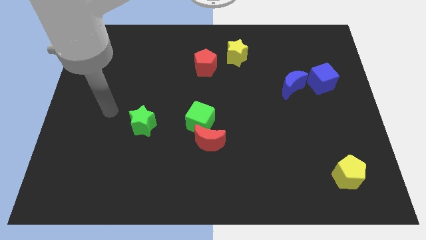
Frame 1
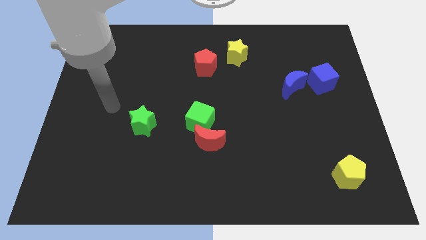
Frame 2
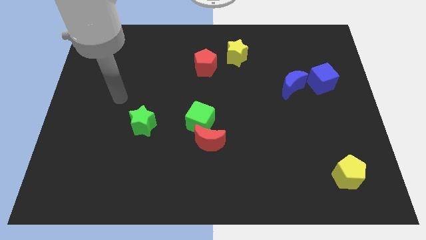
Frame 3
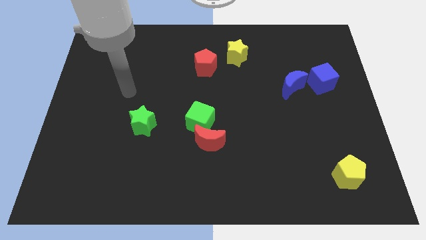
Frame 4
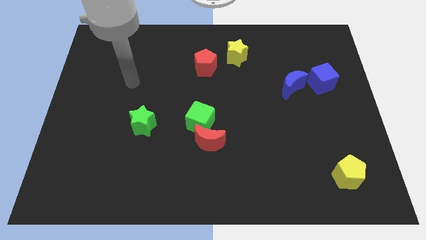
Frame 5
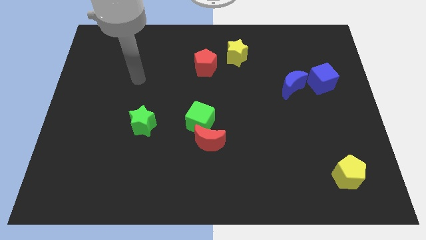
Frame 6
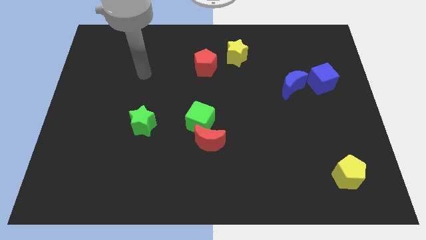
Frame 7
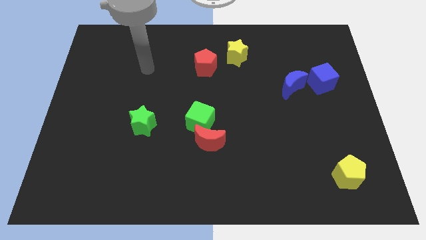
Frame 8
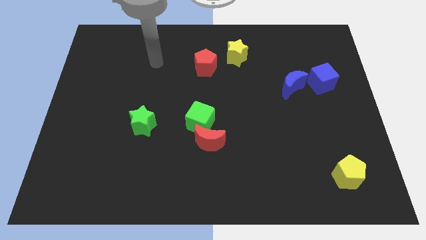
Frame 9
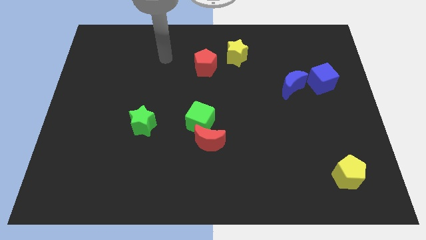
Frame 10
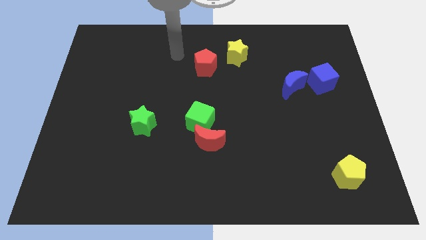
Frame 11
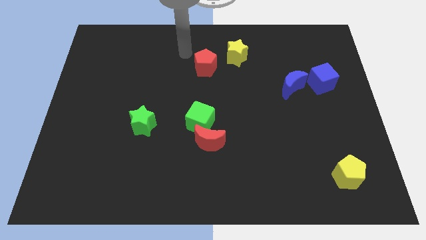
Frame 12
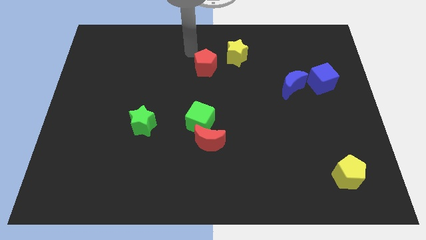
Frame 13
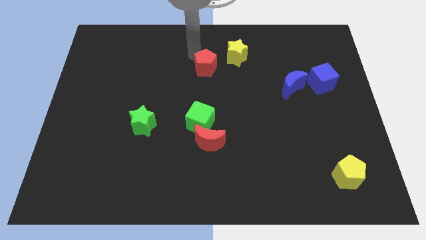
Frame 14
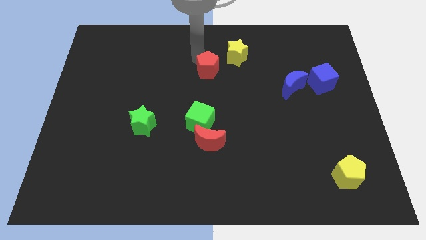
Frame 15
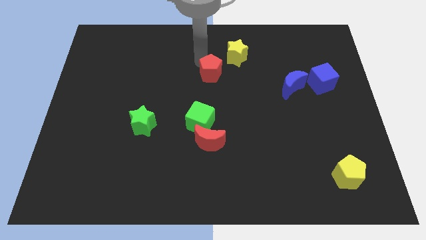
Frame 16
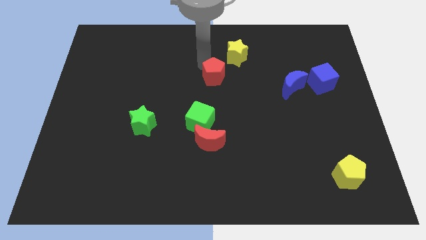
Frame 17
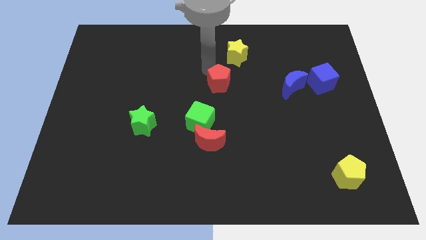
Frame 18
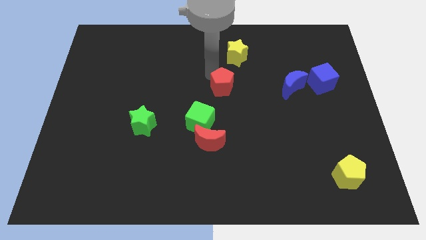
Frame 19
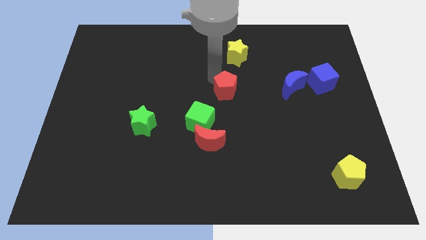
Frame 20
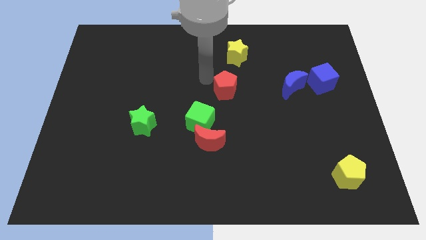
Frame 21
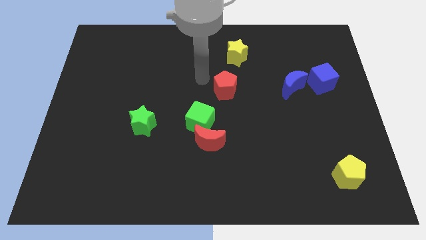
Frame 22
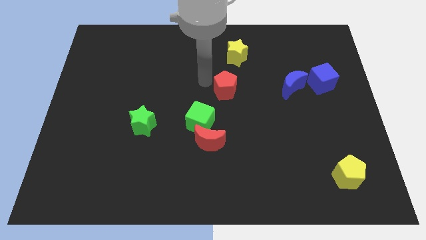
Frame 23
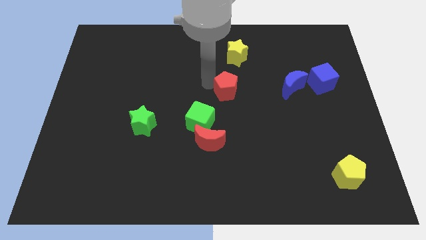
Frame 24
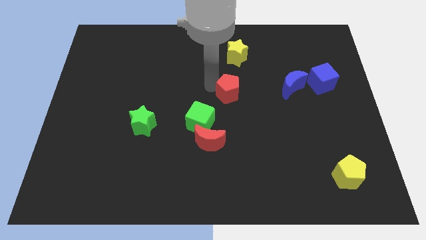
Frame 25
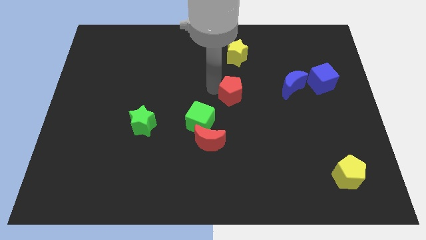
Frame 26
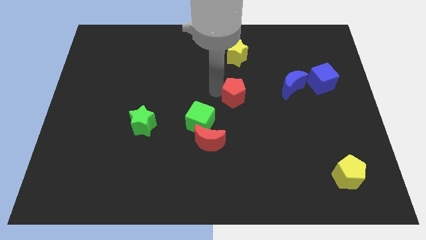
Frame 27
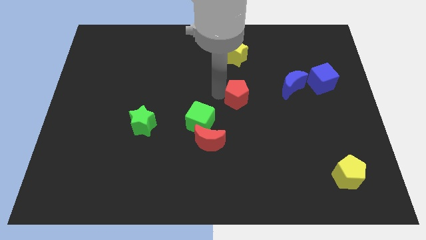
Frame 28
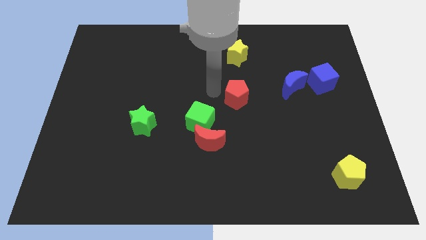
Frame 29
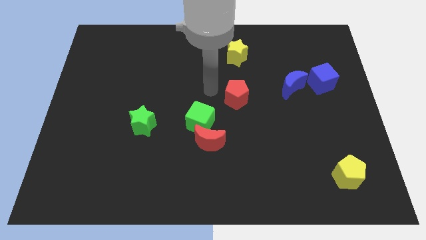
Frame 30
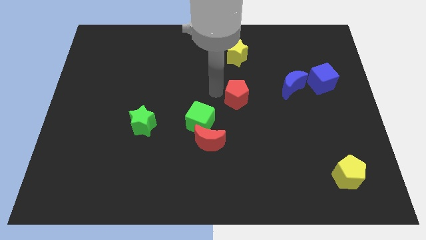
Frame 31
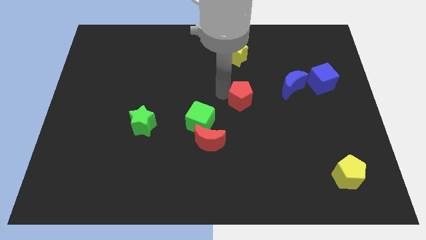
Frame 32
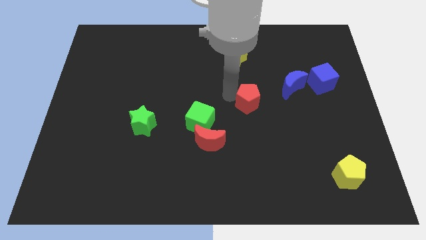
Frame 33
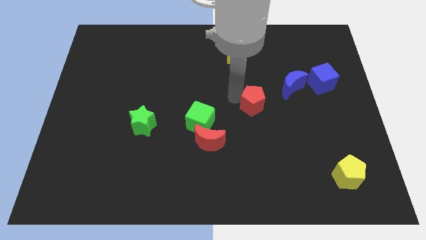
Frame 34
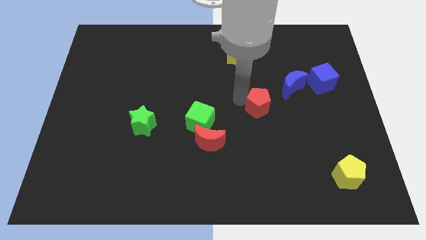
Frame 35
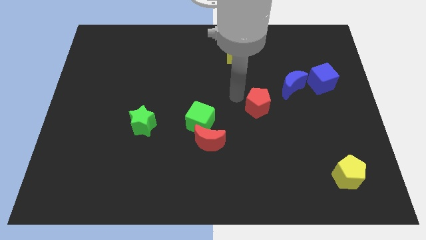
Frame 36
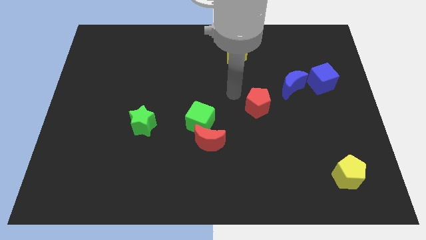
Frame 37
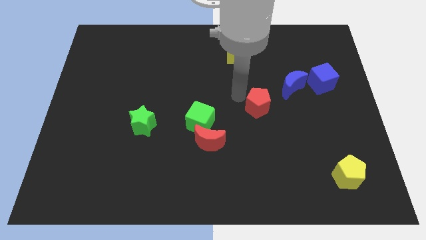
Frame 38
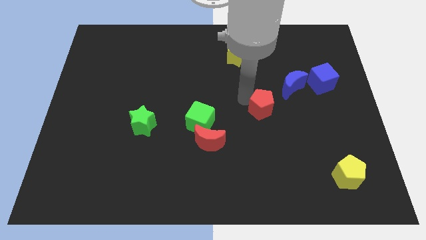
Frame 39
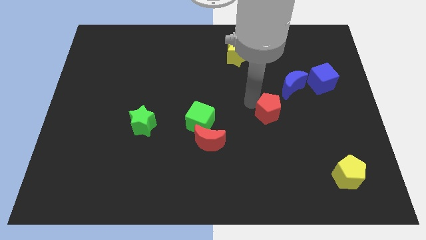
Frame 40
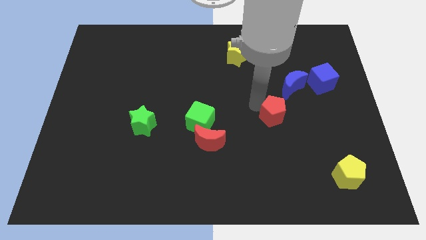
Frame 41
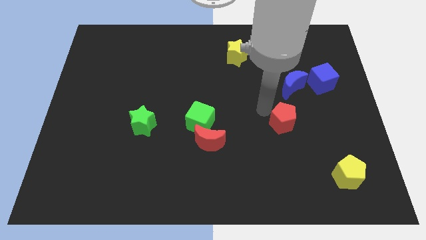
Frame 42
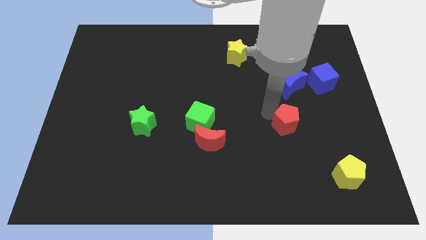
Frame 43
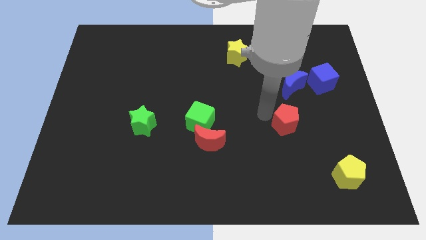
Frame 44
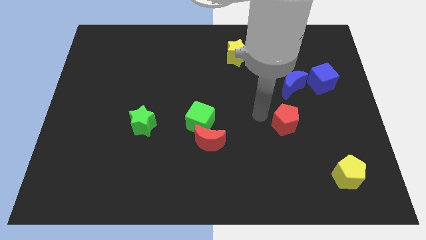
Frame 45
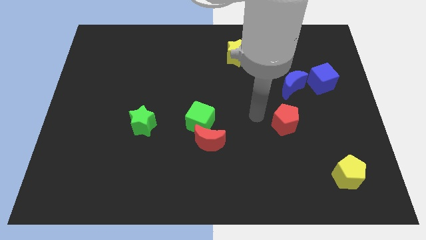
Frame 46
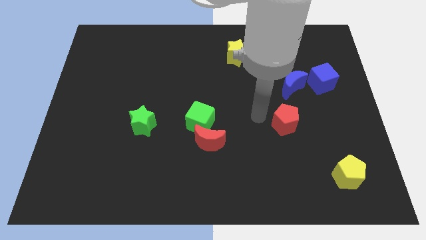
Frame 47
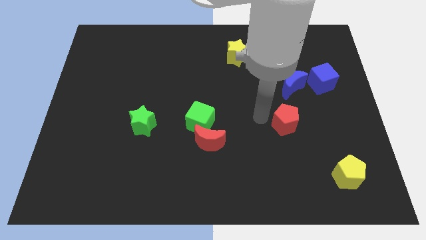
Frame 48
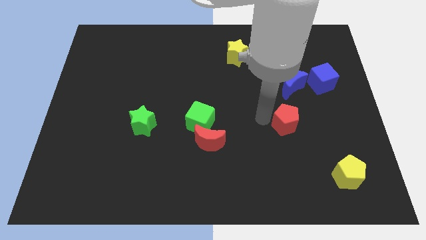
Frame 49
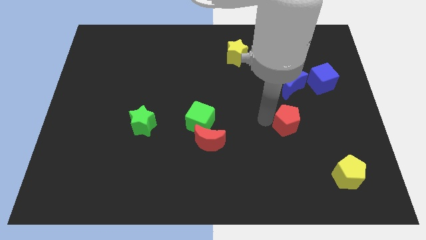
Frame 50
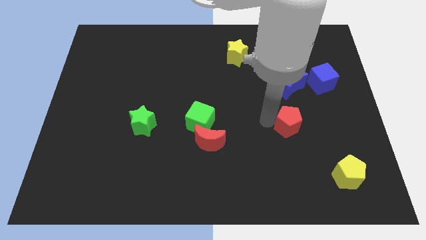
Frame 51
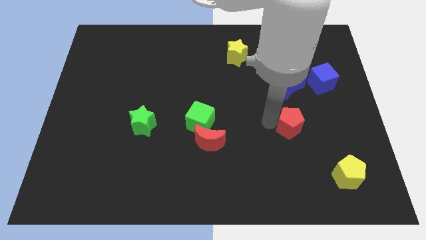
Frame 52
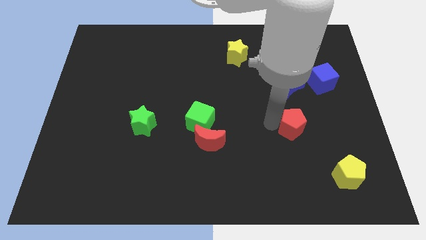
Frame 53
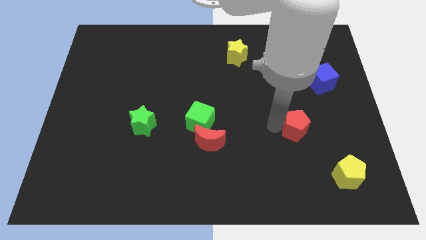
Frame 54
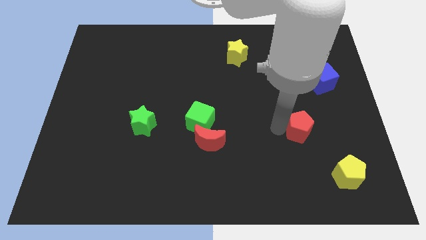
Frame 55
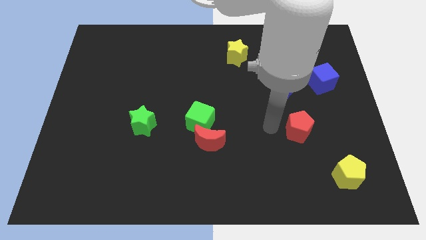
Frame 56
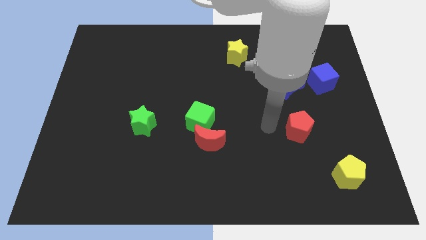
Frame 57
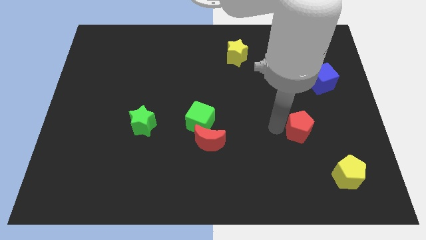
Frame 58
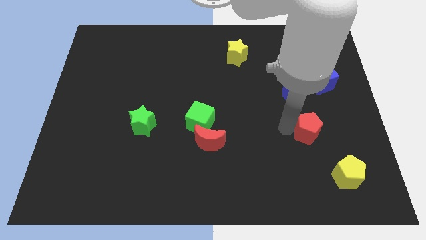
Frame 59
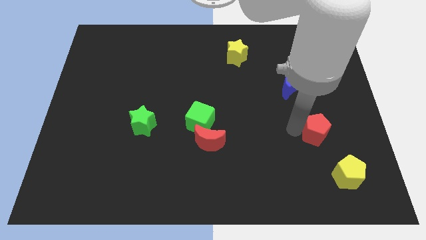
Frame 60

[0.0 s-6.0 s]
put the red pentagon to the top side of the yellow pentagon
